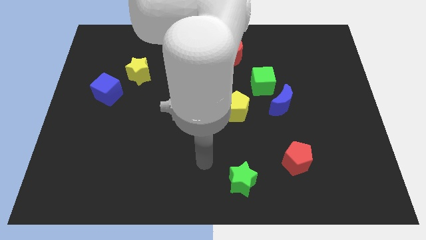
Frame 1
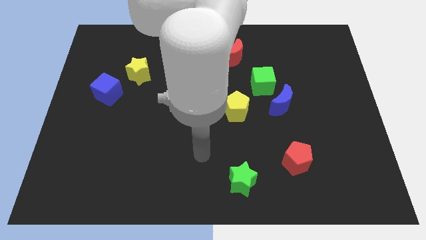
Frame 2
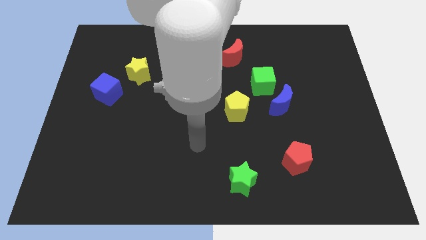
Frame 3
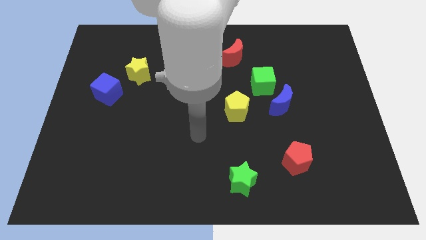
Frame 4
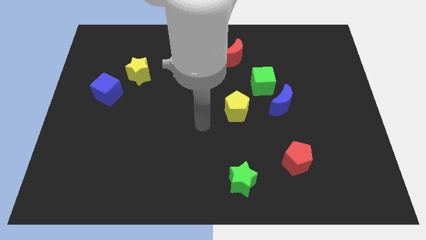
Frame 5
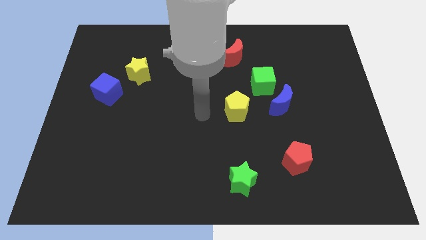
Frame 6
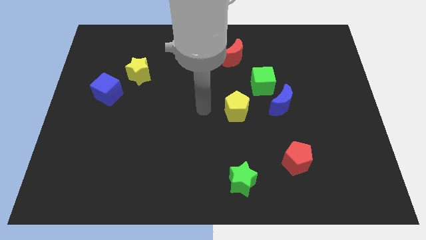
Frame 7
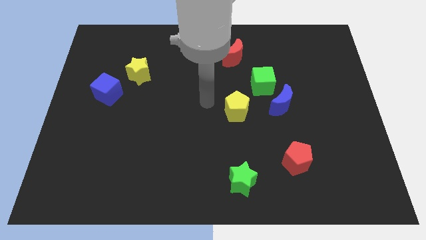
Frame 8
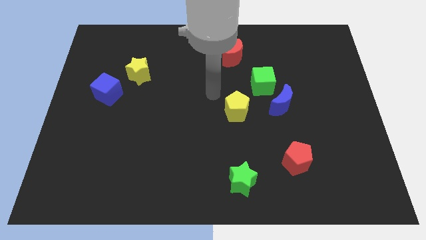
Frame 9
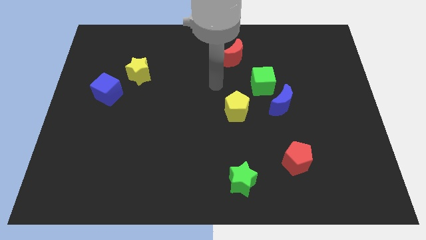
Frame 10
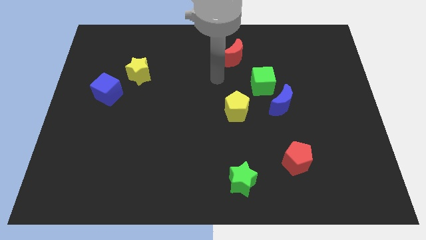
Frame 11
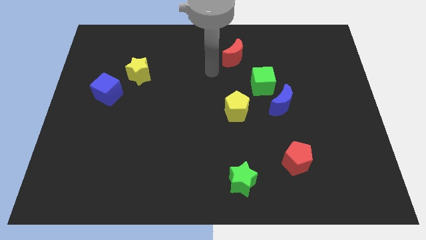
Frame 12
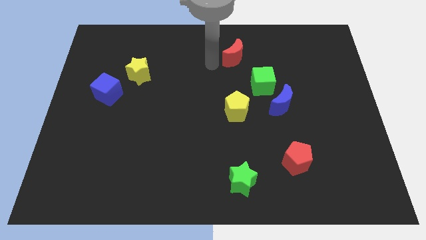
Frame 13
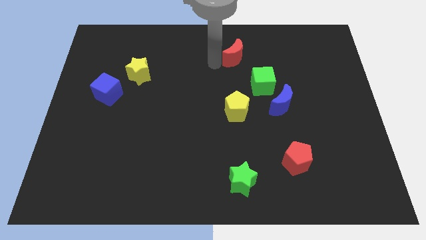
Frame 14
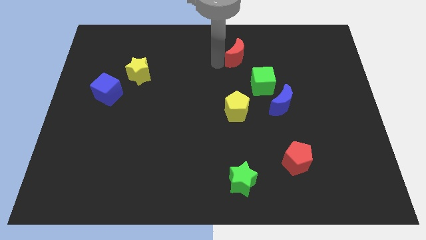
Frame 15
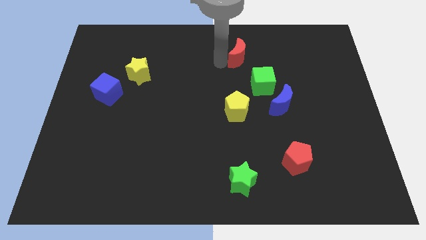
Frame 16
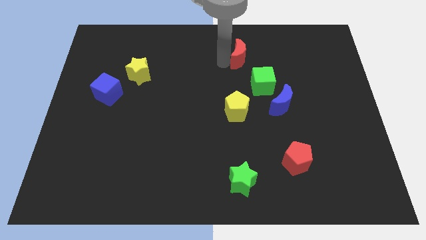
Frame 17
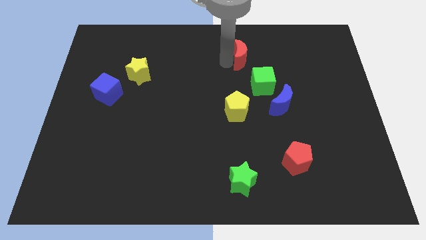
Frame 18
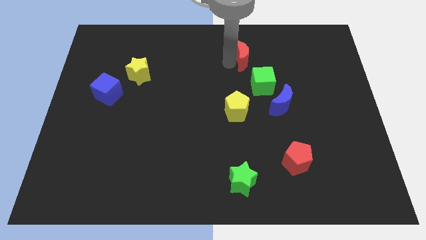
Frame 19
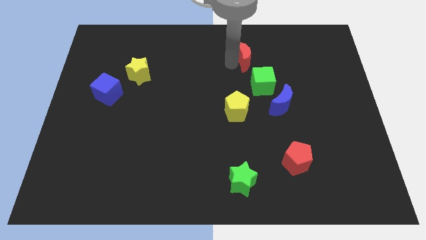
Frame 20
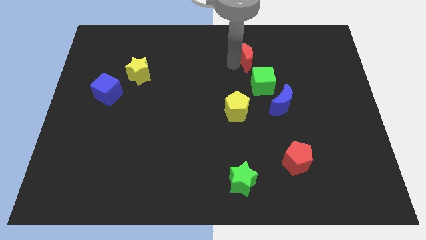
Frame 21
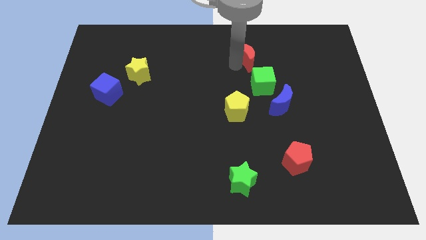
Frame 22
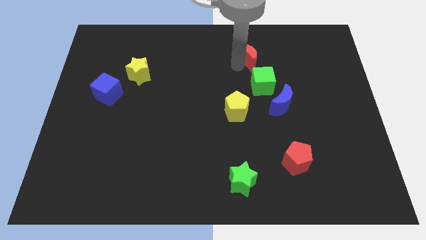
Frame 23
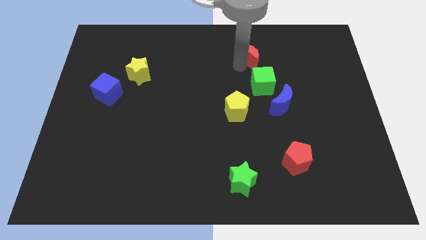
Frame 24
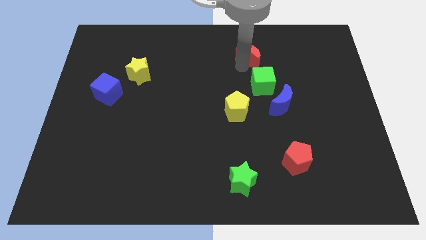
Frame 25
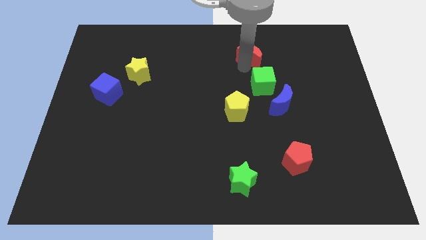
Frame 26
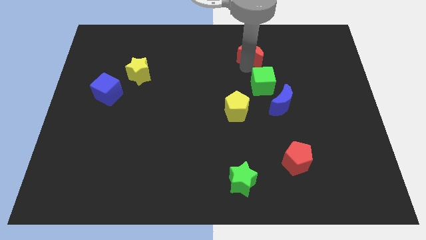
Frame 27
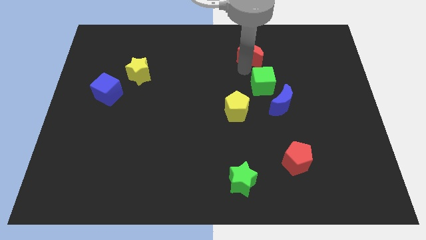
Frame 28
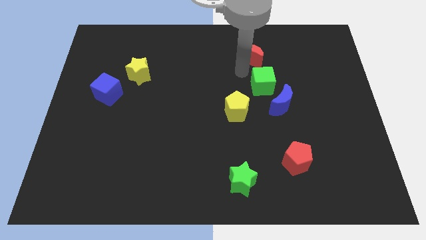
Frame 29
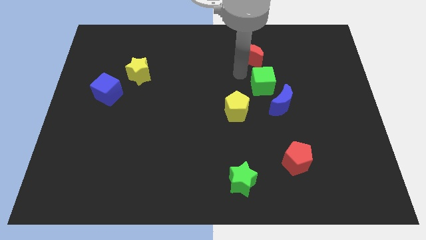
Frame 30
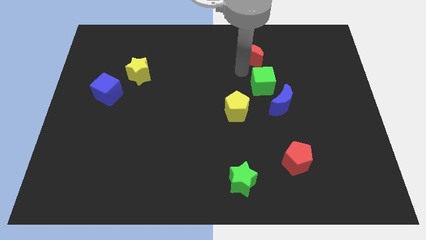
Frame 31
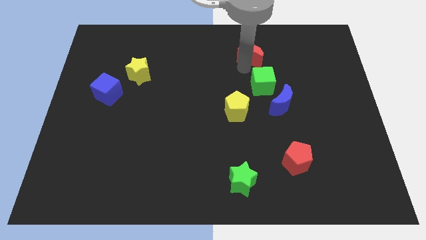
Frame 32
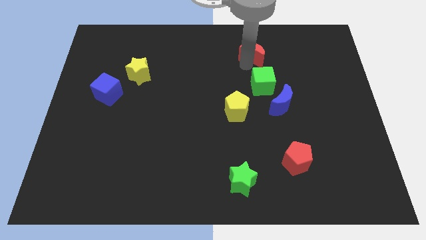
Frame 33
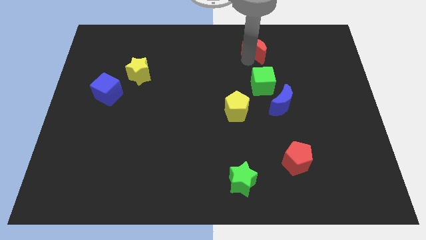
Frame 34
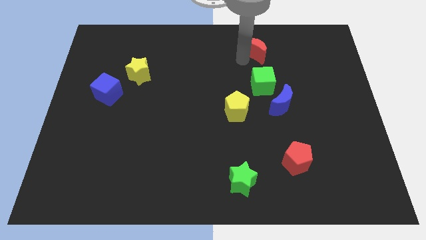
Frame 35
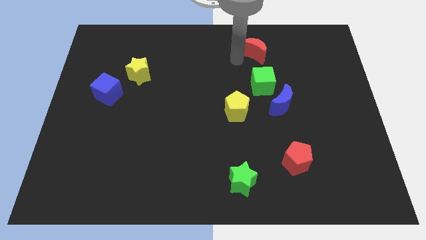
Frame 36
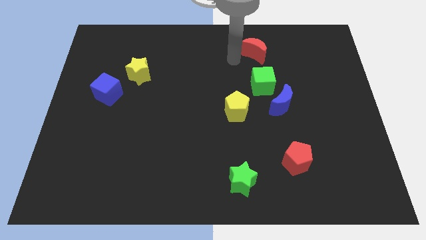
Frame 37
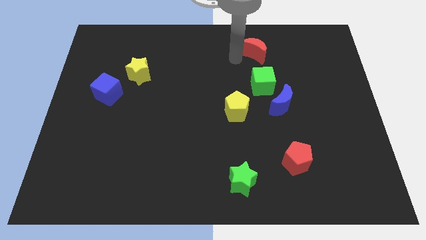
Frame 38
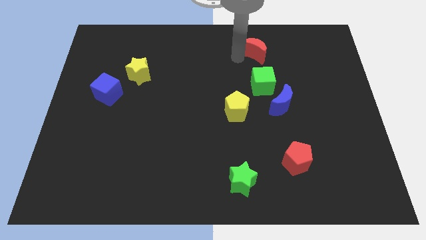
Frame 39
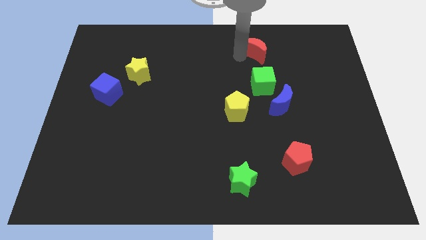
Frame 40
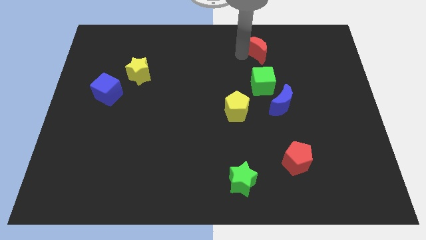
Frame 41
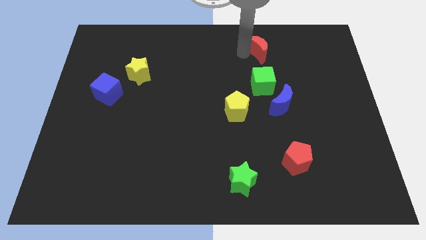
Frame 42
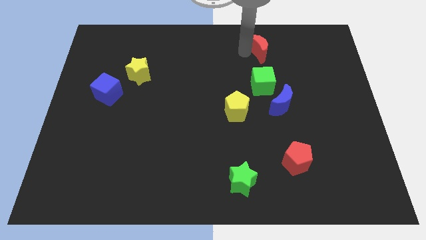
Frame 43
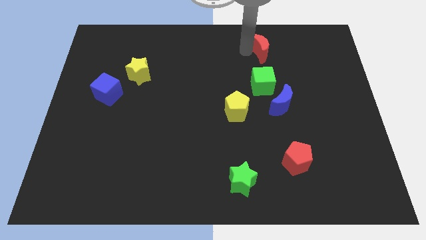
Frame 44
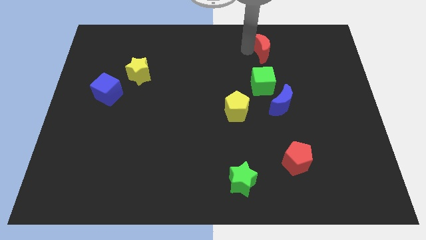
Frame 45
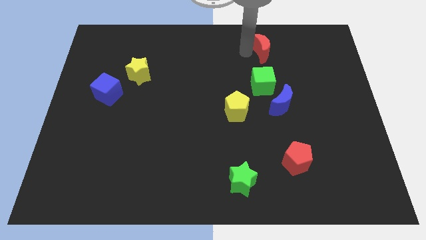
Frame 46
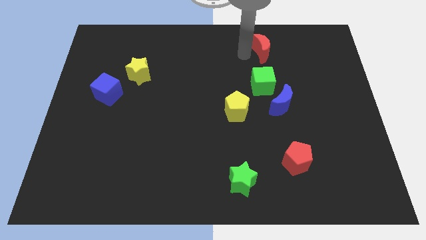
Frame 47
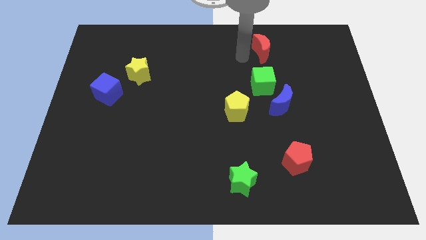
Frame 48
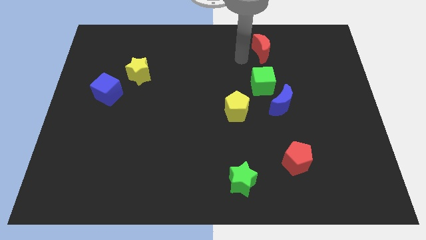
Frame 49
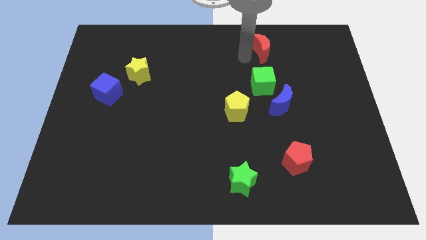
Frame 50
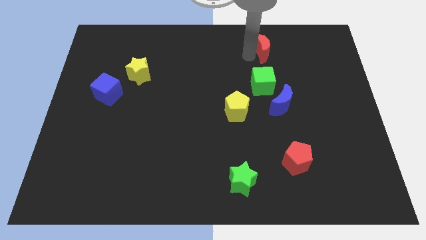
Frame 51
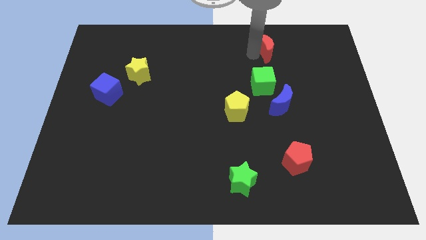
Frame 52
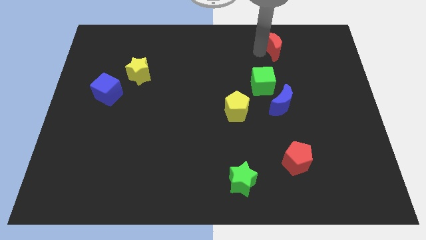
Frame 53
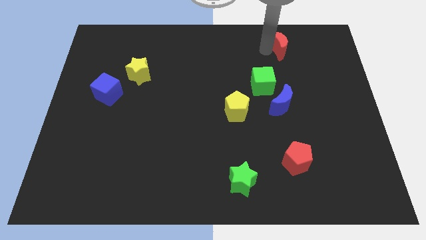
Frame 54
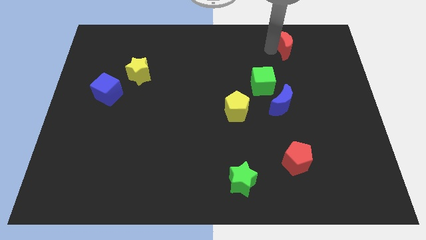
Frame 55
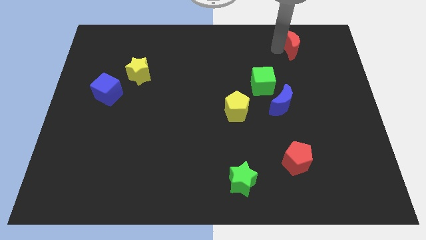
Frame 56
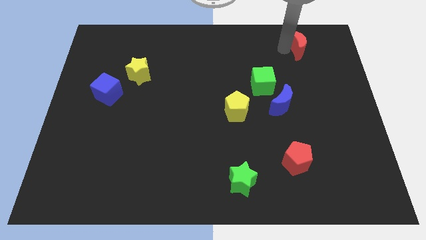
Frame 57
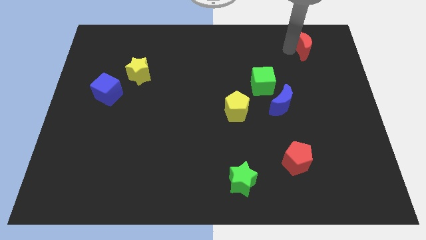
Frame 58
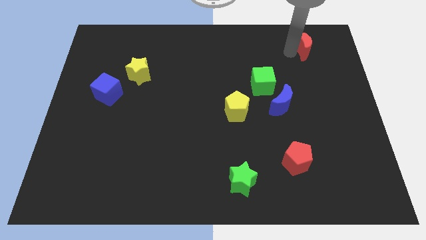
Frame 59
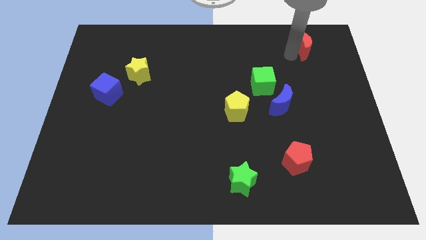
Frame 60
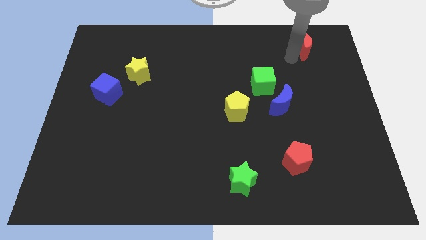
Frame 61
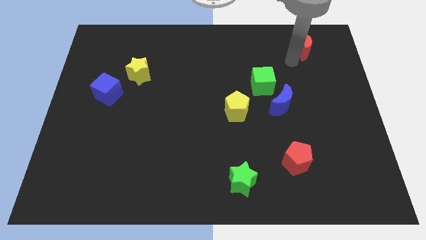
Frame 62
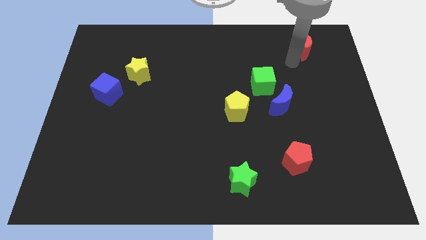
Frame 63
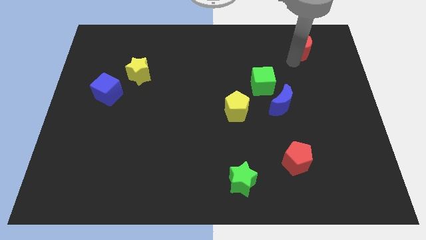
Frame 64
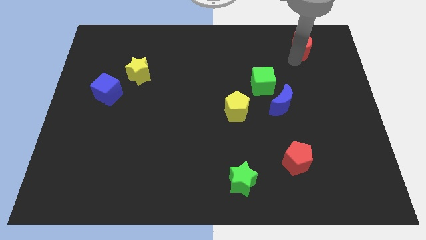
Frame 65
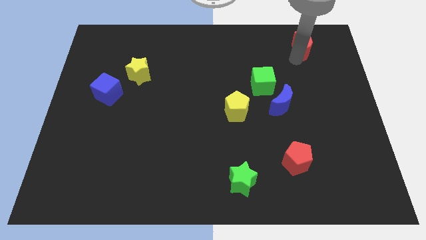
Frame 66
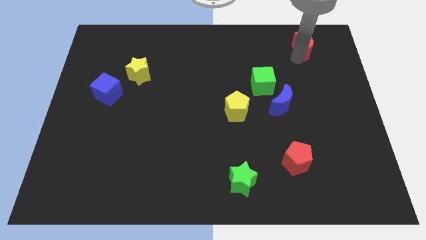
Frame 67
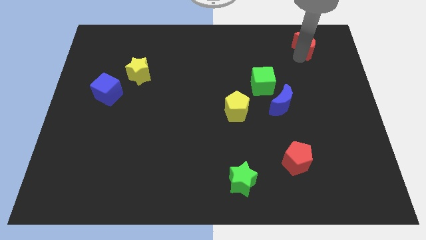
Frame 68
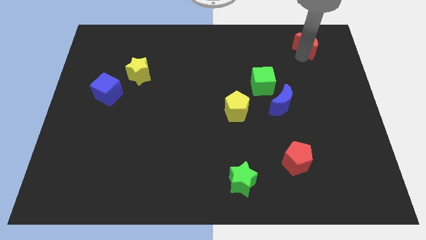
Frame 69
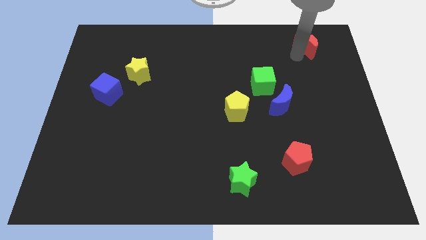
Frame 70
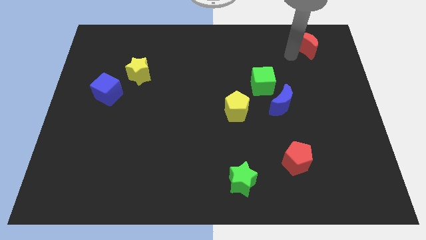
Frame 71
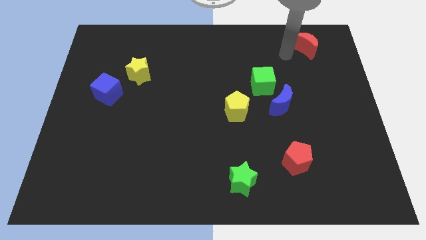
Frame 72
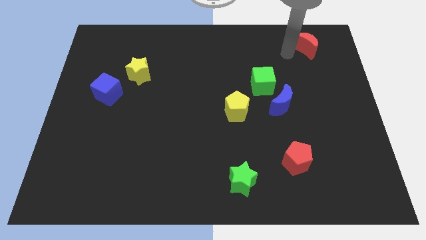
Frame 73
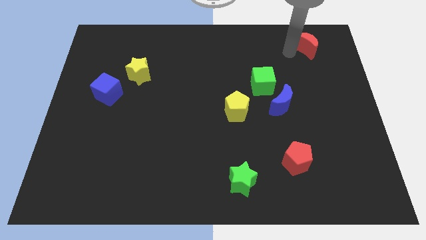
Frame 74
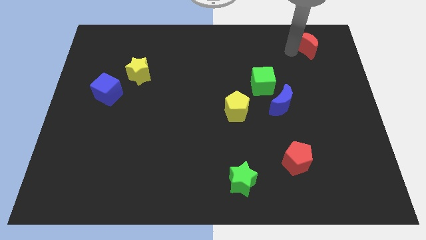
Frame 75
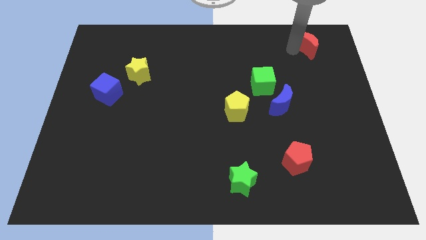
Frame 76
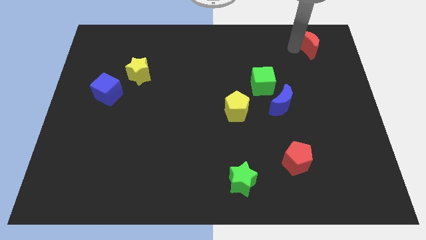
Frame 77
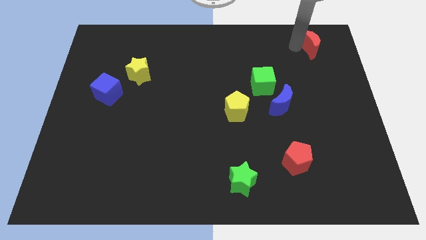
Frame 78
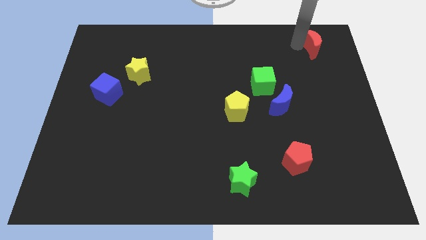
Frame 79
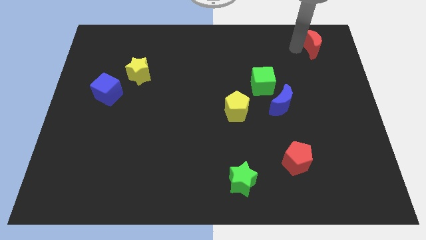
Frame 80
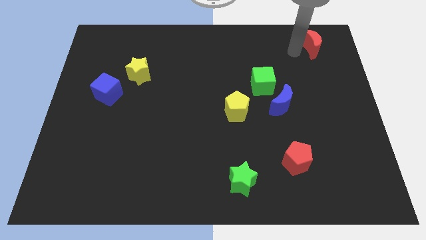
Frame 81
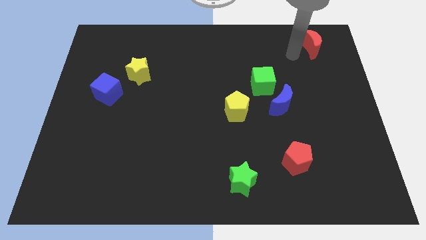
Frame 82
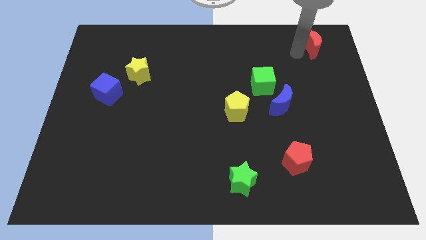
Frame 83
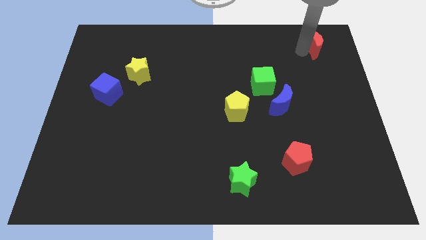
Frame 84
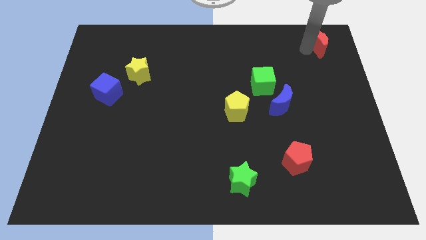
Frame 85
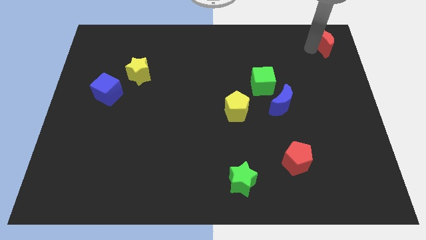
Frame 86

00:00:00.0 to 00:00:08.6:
slide the red moon to the top right corner
